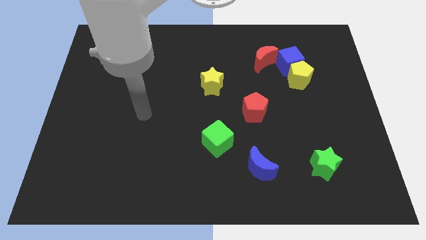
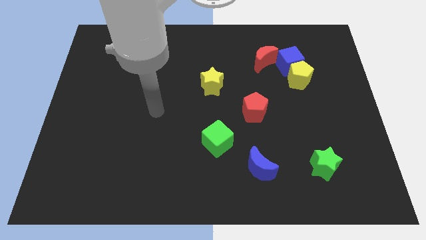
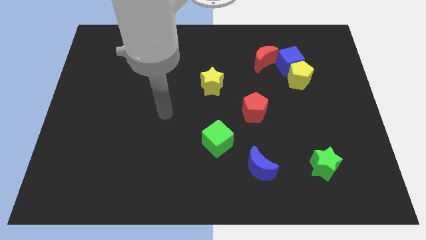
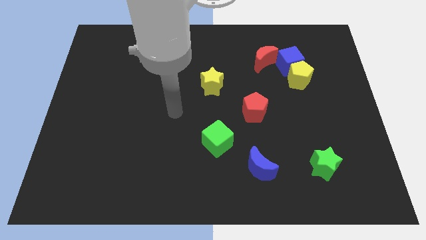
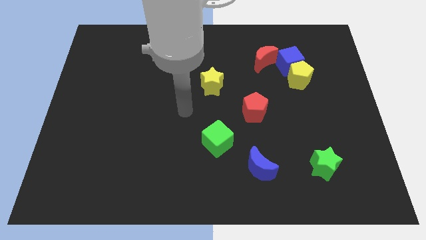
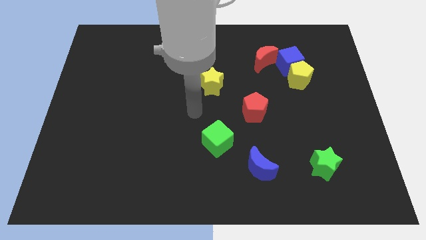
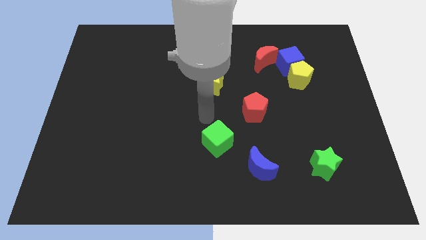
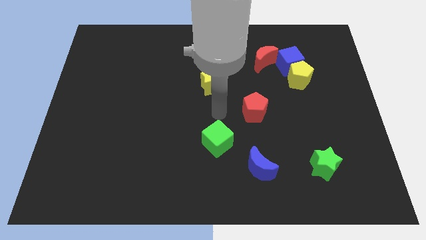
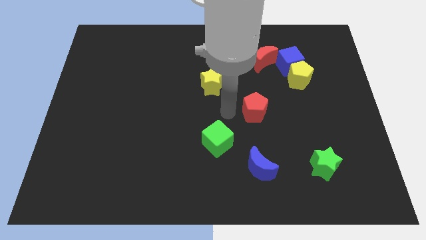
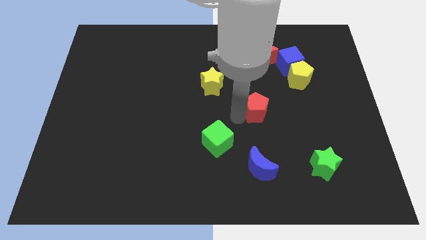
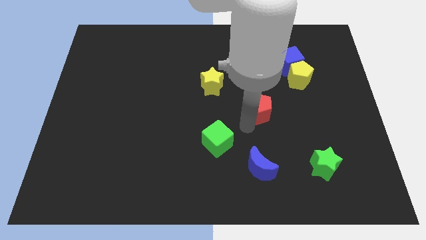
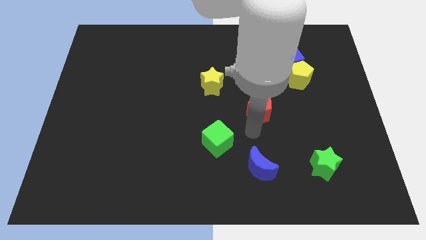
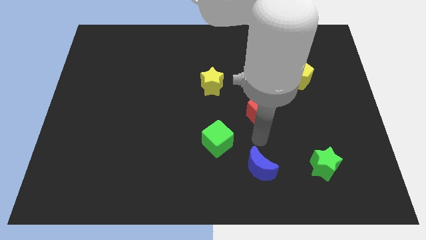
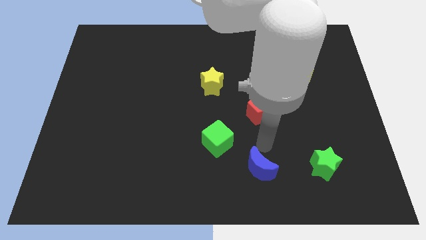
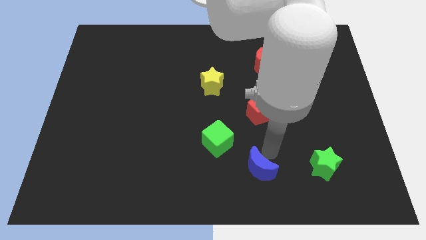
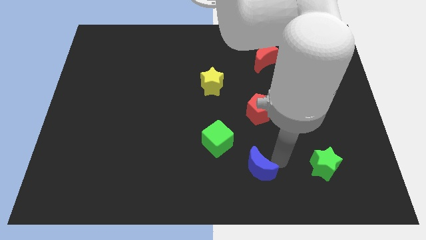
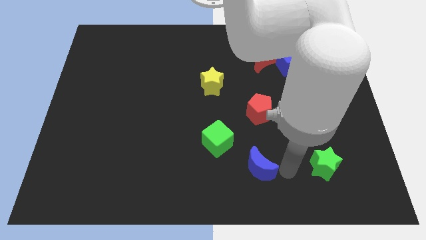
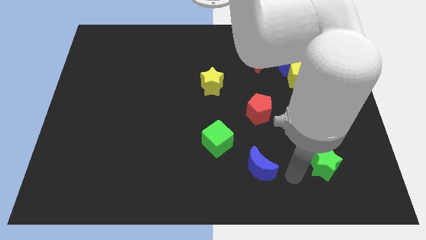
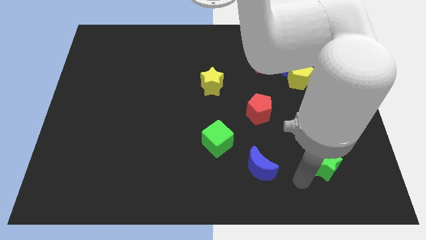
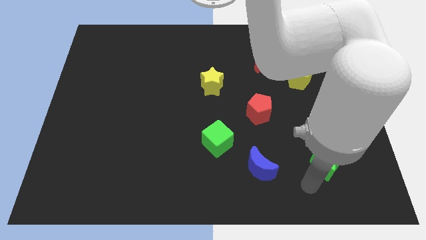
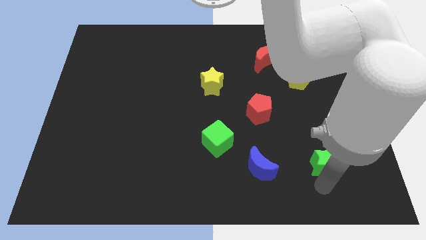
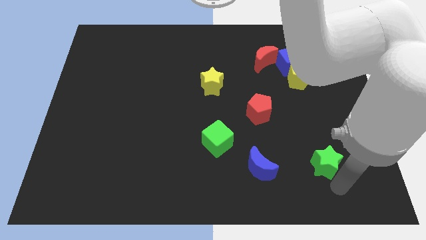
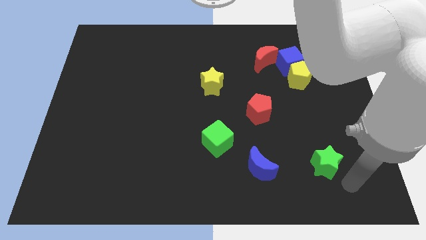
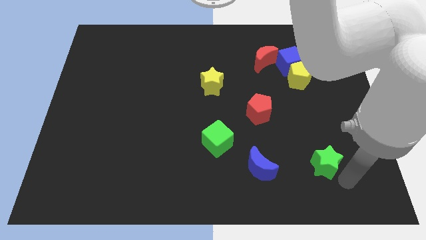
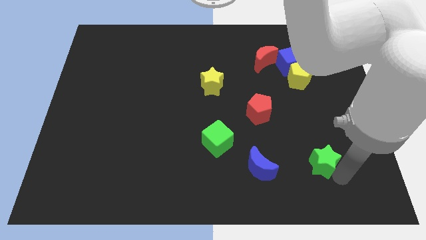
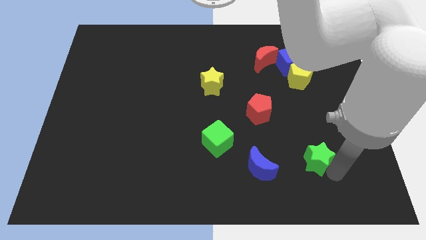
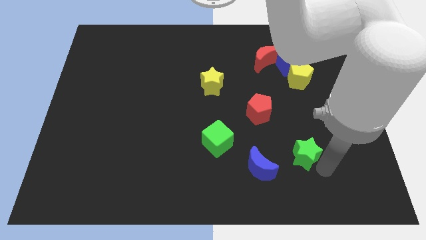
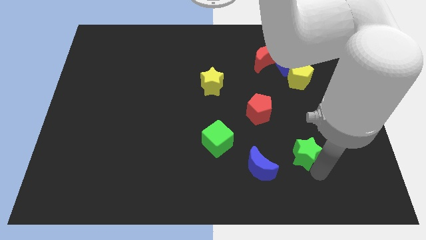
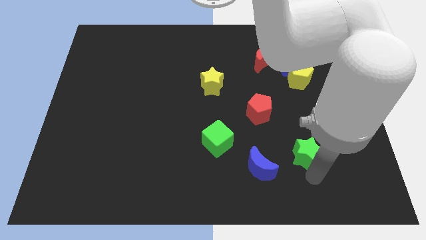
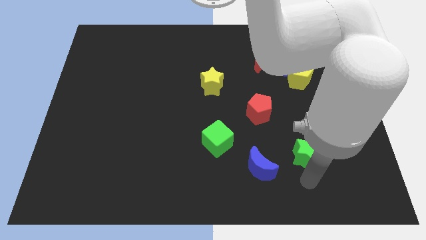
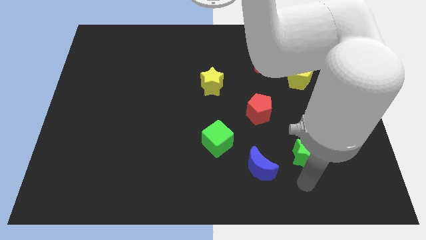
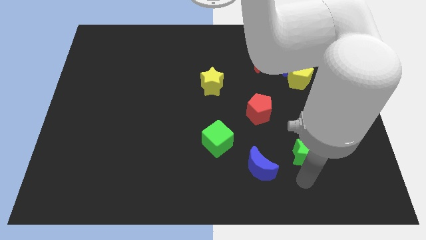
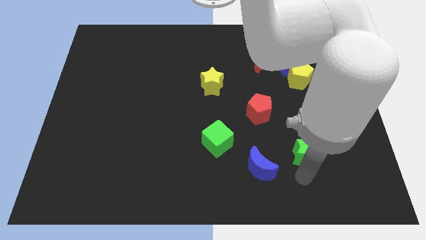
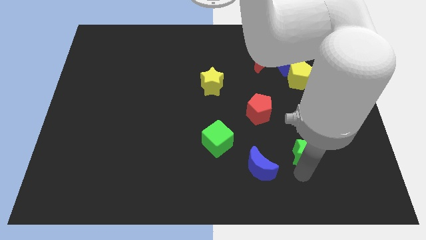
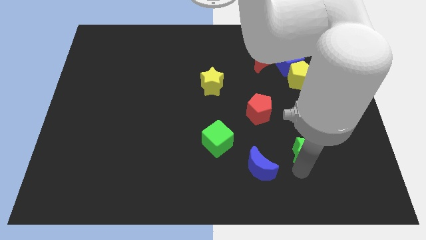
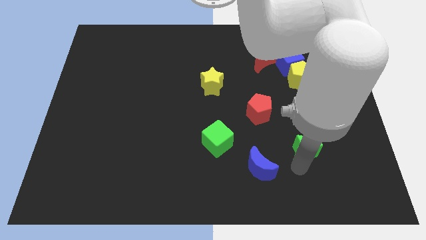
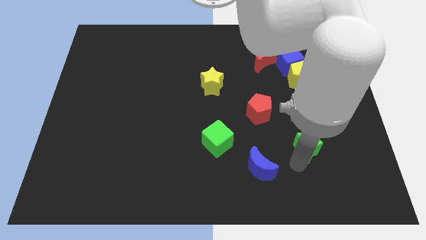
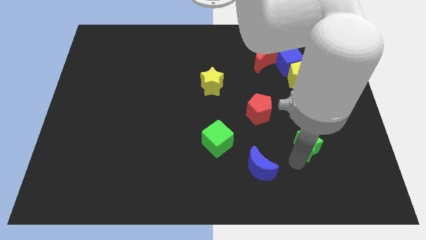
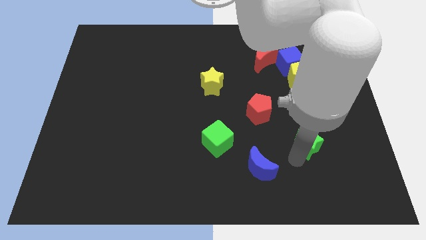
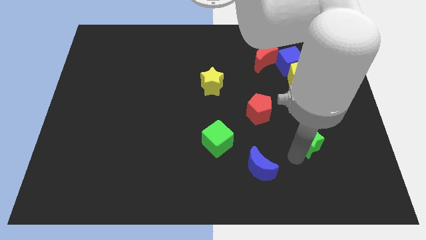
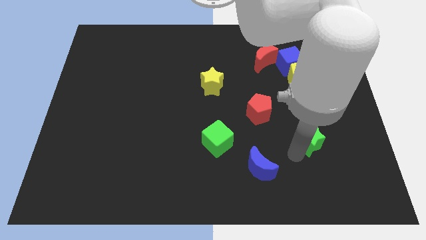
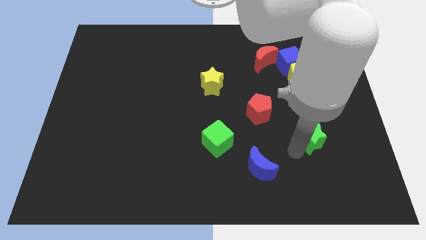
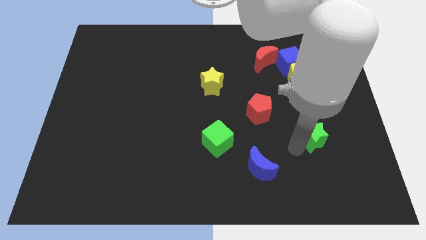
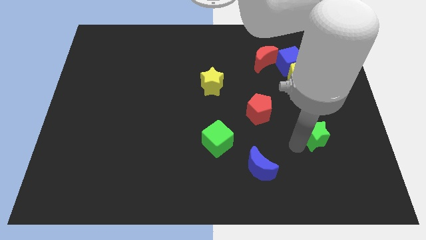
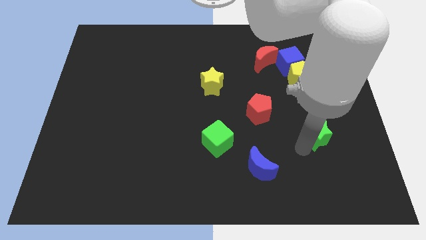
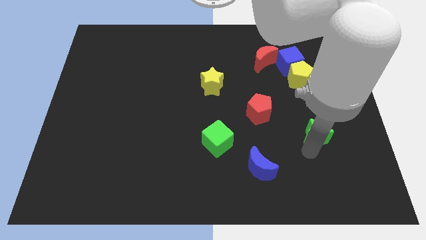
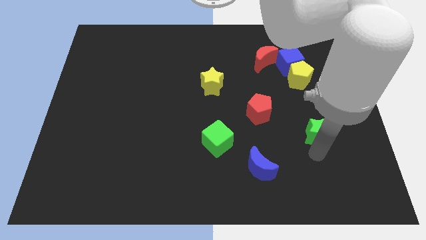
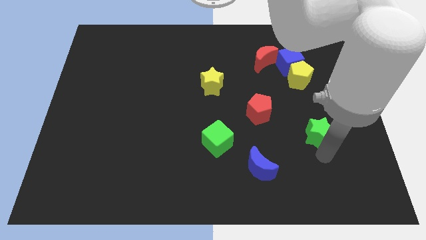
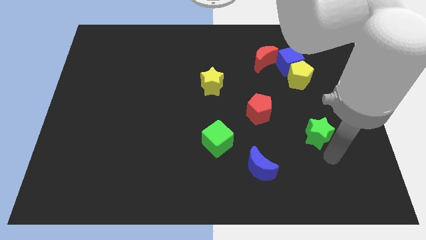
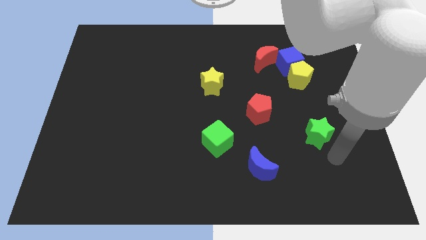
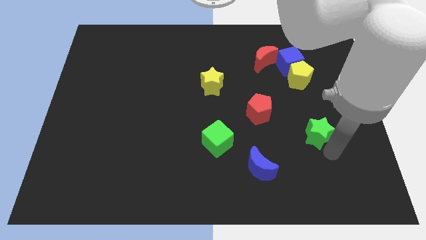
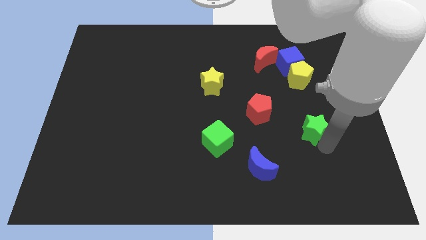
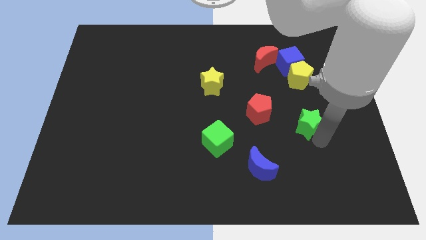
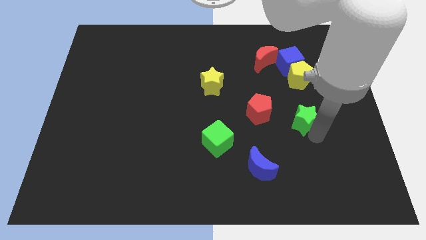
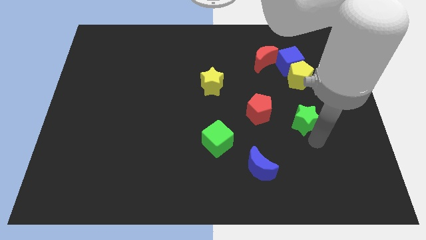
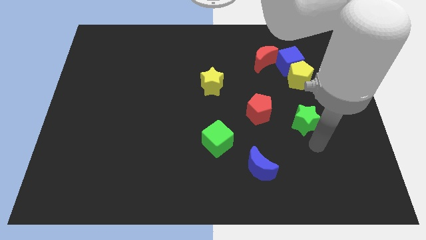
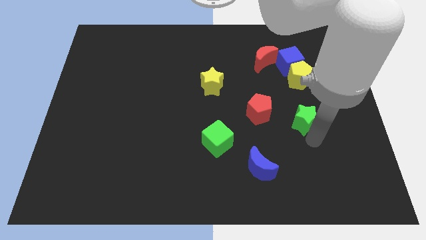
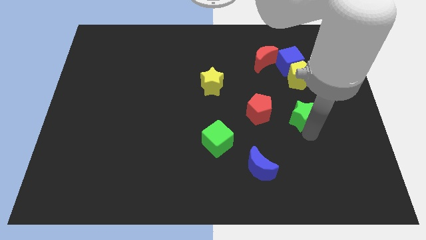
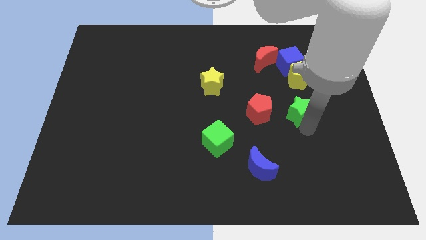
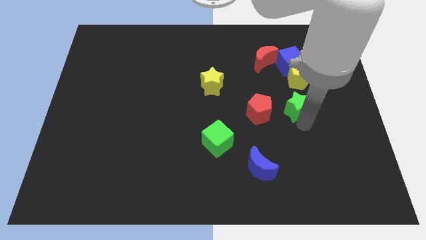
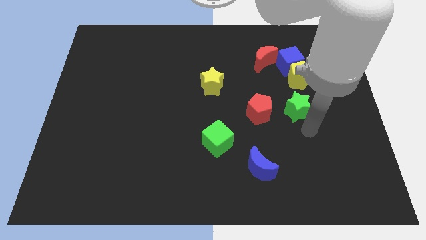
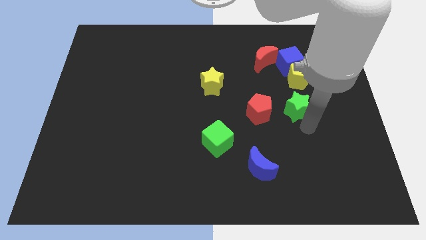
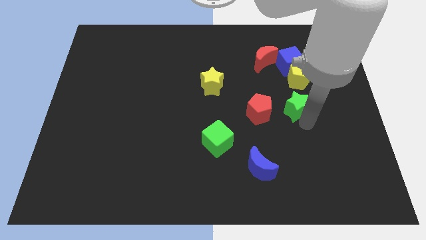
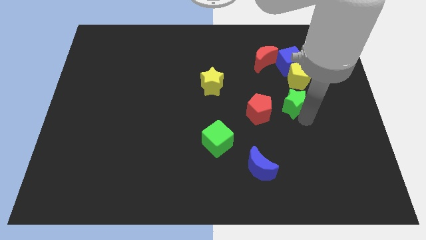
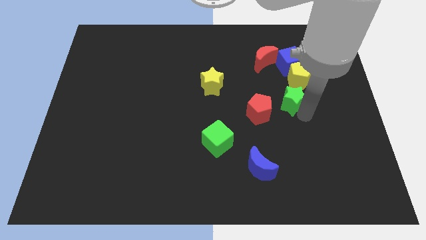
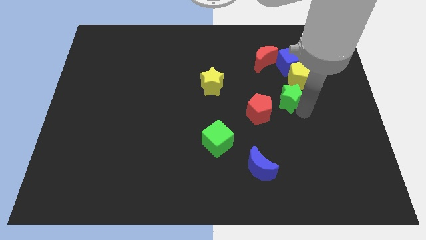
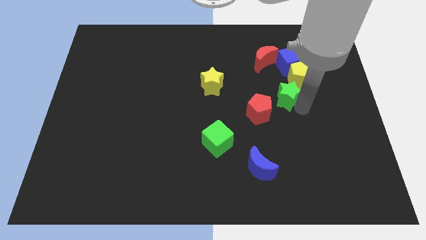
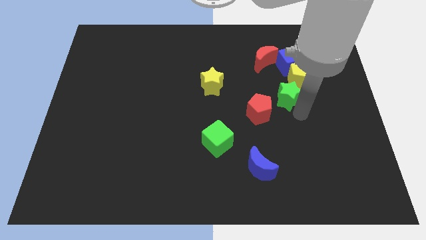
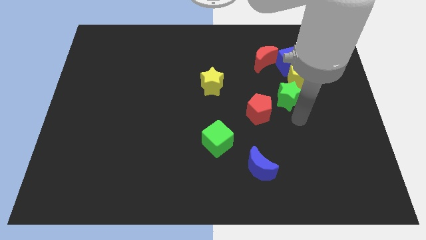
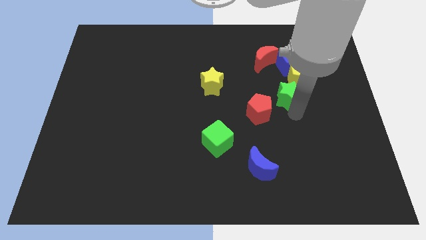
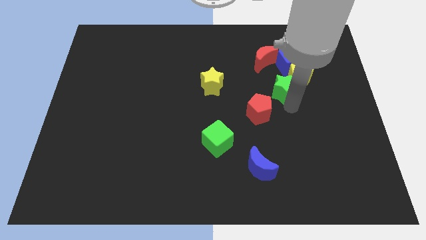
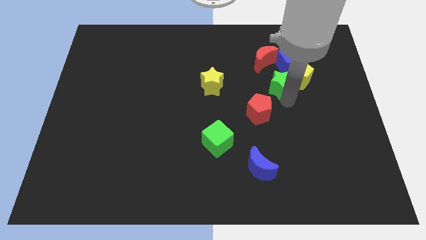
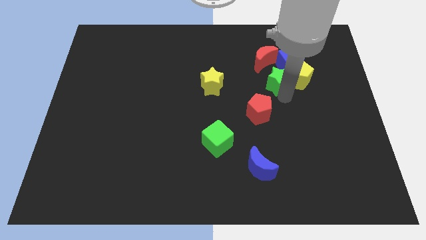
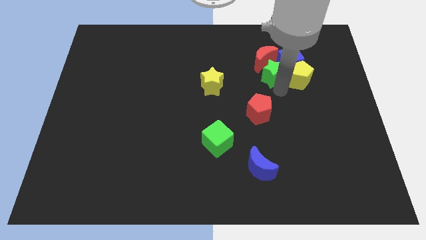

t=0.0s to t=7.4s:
slide the green star towards the red moon
